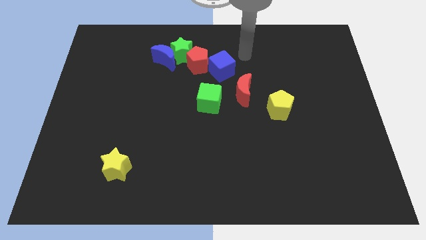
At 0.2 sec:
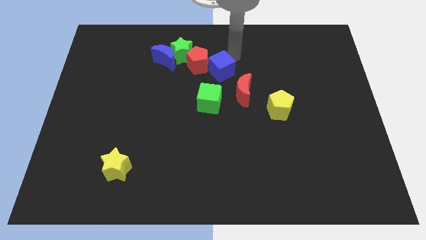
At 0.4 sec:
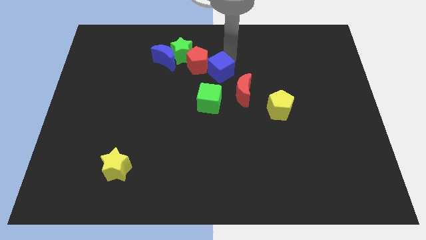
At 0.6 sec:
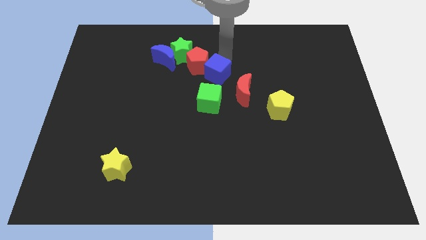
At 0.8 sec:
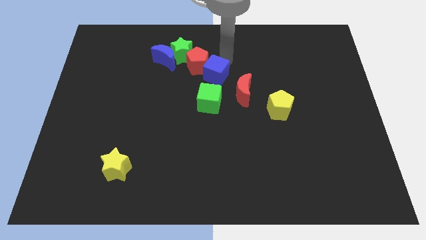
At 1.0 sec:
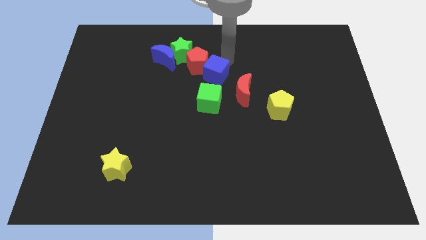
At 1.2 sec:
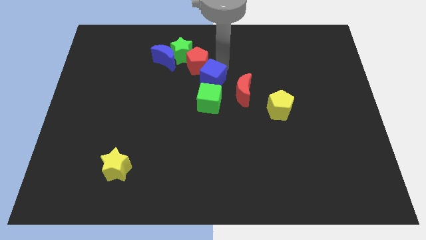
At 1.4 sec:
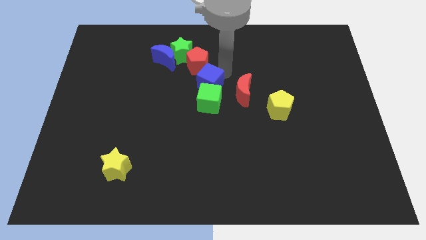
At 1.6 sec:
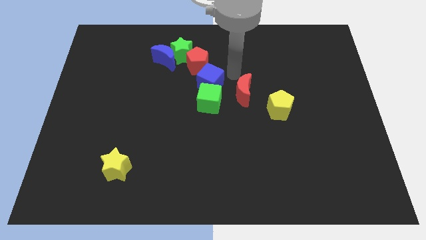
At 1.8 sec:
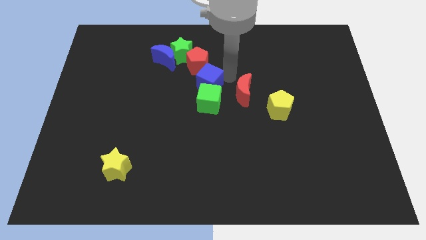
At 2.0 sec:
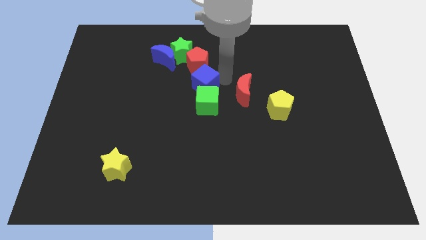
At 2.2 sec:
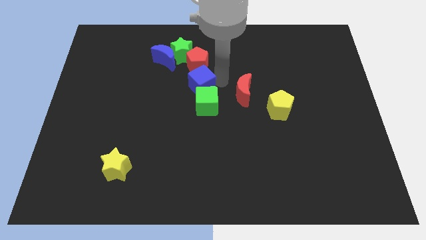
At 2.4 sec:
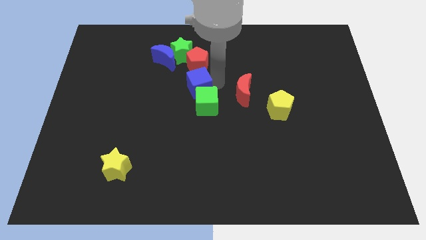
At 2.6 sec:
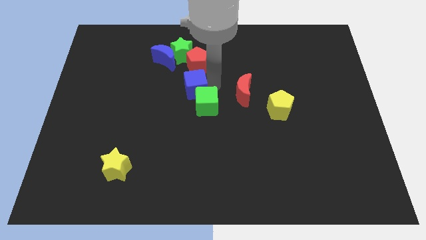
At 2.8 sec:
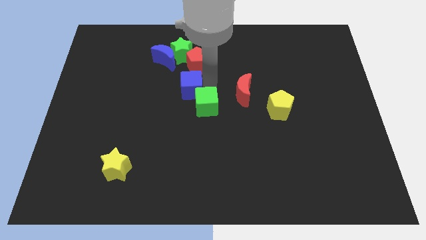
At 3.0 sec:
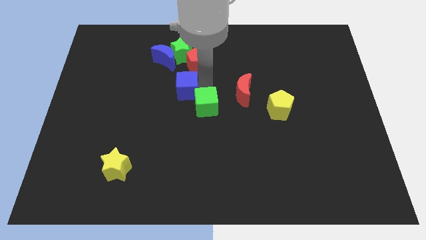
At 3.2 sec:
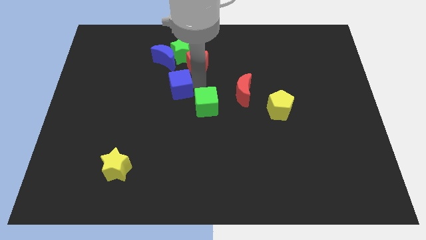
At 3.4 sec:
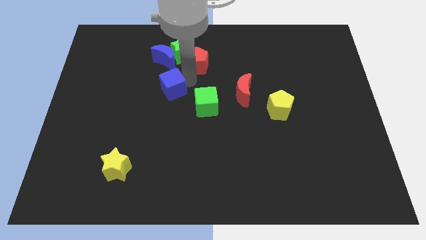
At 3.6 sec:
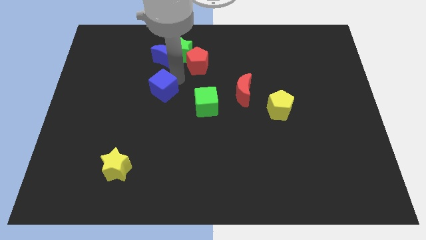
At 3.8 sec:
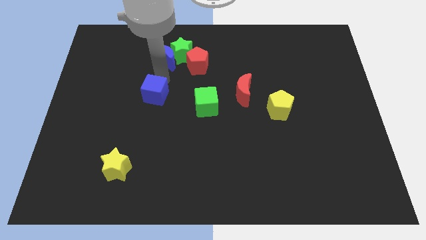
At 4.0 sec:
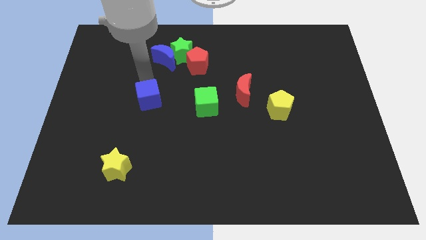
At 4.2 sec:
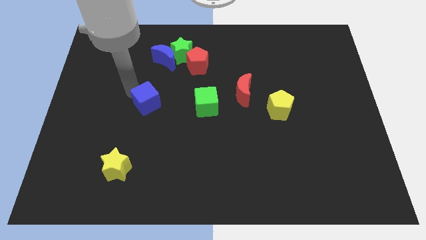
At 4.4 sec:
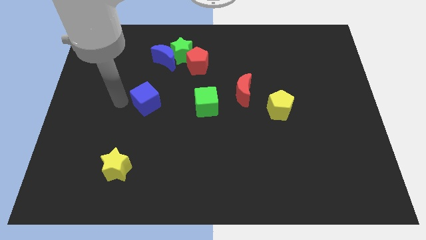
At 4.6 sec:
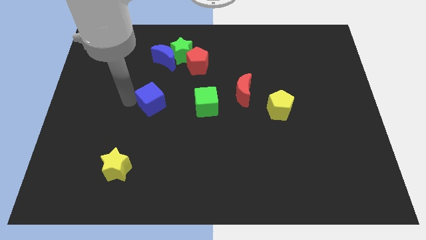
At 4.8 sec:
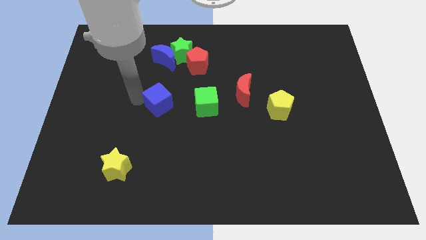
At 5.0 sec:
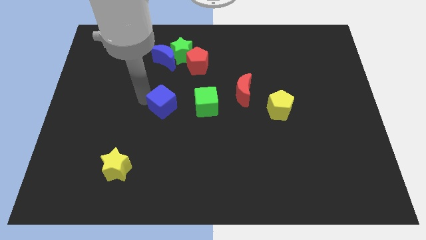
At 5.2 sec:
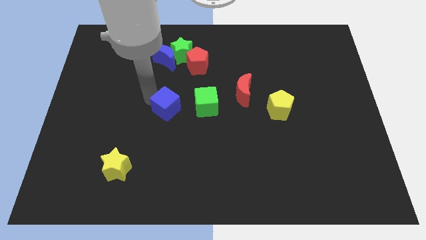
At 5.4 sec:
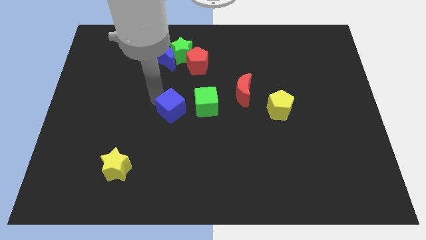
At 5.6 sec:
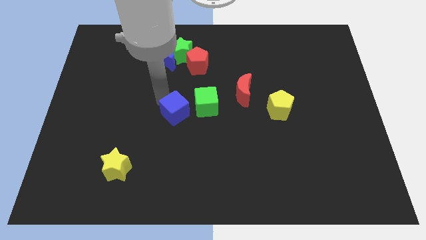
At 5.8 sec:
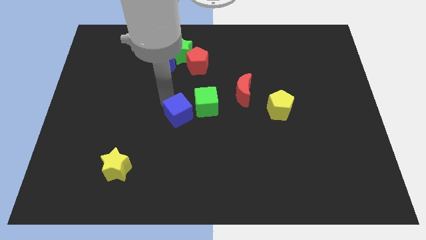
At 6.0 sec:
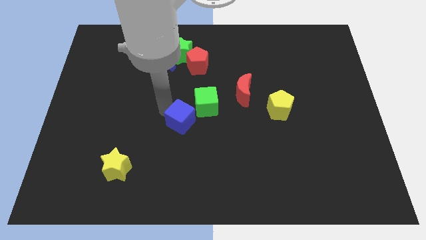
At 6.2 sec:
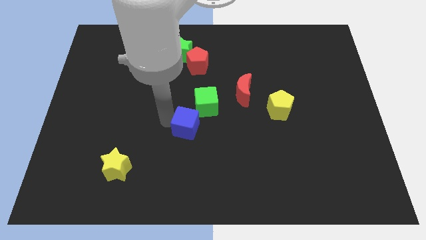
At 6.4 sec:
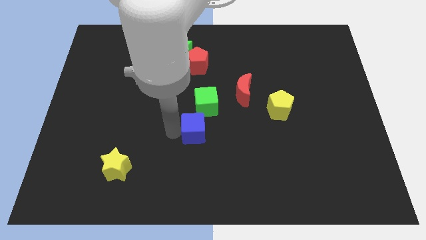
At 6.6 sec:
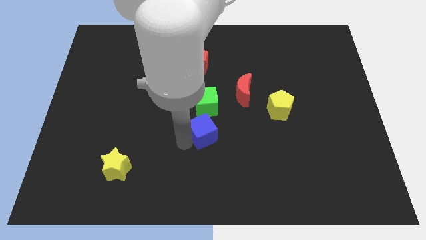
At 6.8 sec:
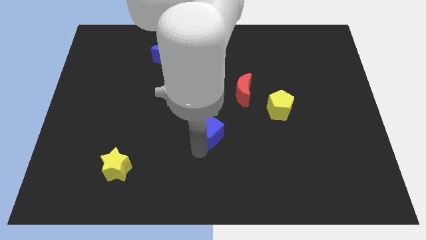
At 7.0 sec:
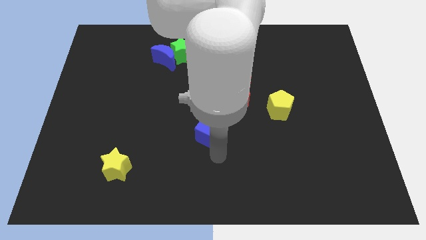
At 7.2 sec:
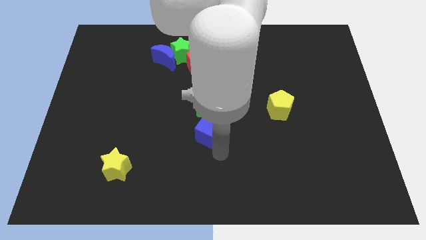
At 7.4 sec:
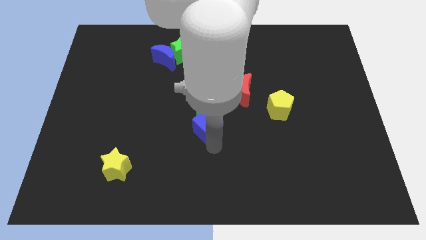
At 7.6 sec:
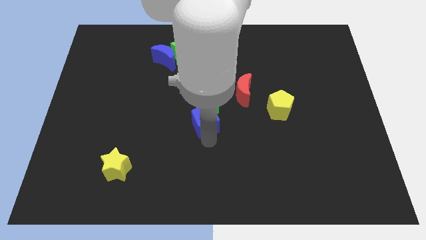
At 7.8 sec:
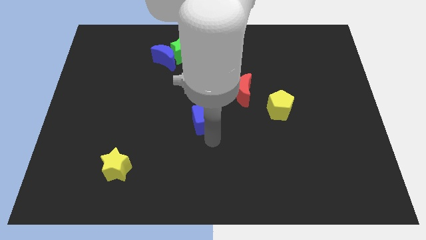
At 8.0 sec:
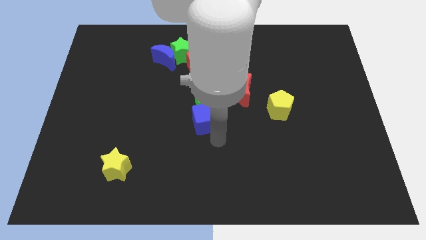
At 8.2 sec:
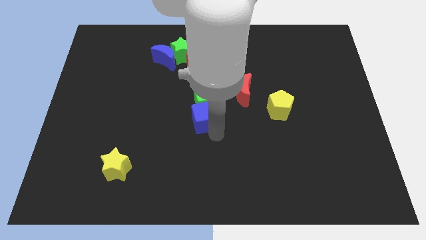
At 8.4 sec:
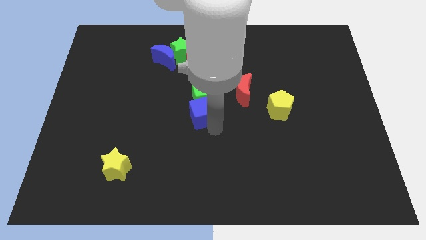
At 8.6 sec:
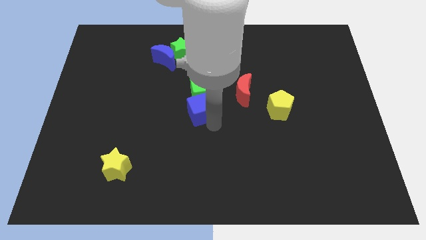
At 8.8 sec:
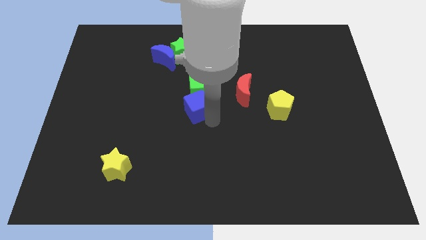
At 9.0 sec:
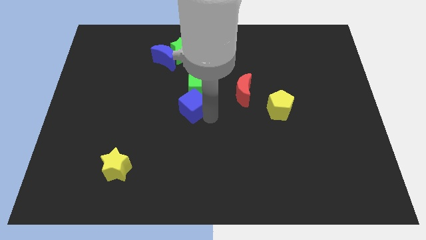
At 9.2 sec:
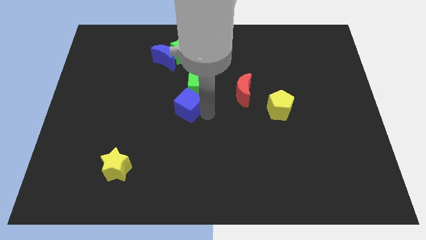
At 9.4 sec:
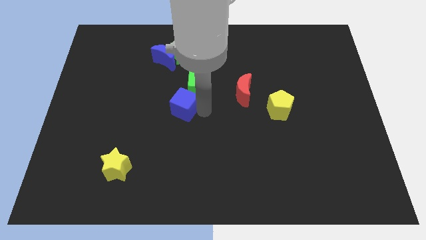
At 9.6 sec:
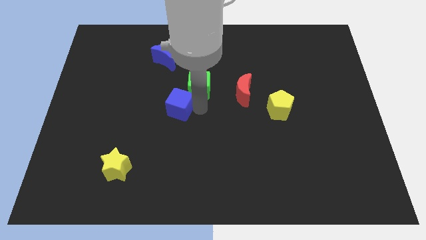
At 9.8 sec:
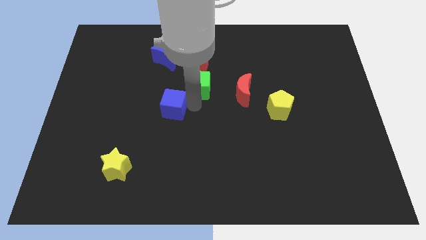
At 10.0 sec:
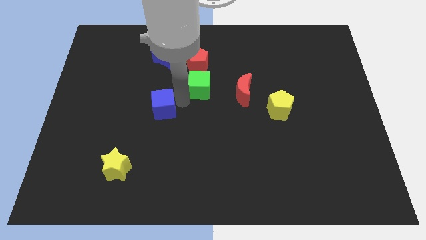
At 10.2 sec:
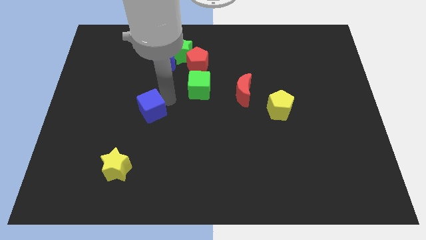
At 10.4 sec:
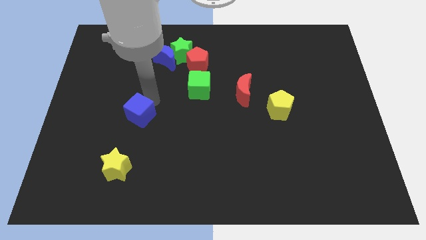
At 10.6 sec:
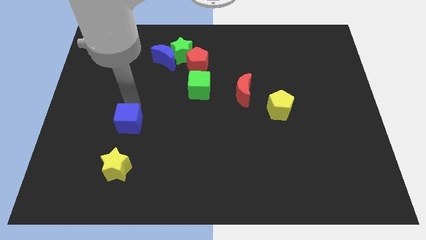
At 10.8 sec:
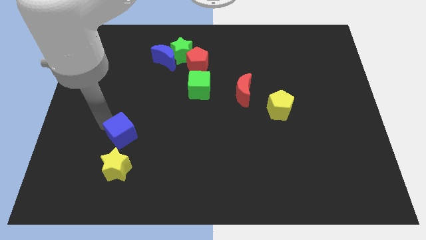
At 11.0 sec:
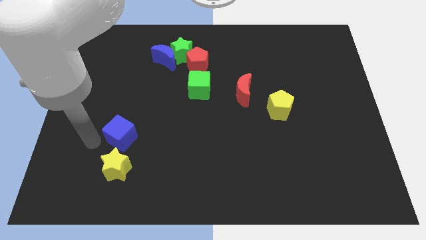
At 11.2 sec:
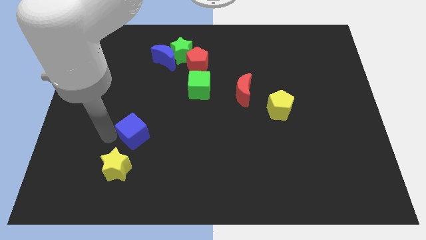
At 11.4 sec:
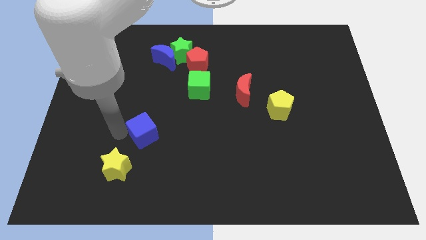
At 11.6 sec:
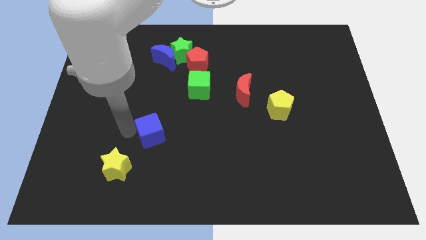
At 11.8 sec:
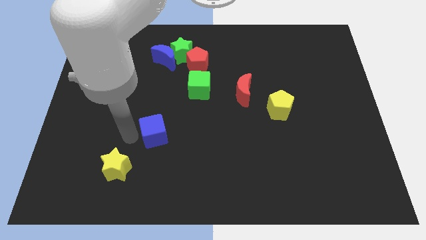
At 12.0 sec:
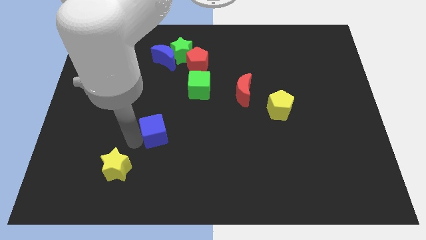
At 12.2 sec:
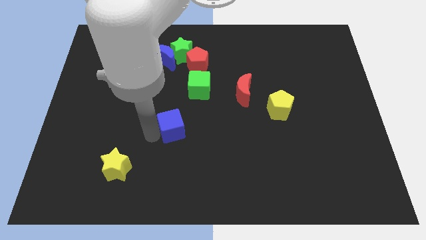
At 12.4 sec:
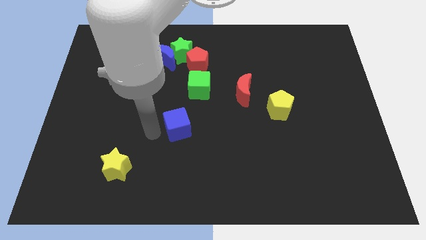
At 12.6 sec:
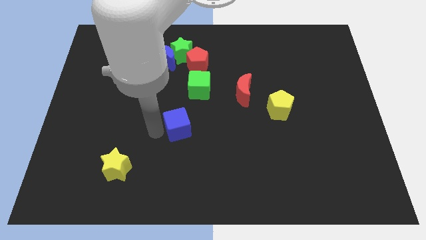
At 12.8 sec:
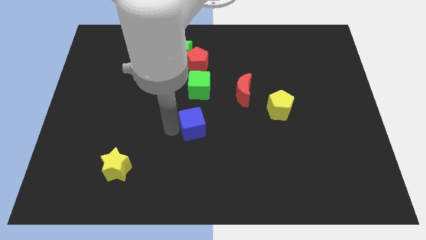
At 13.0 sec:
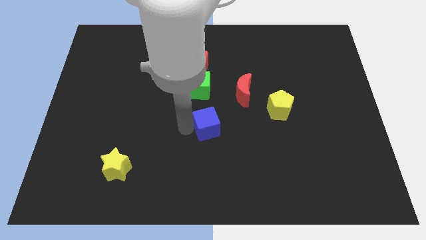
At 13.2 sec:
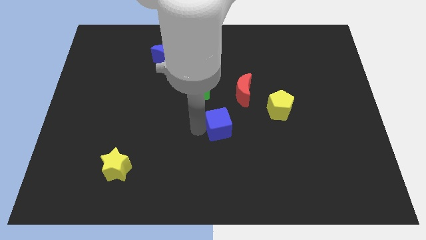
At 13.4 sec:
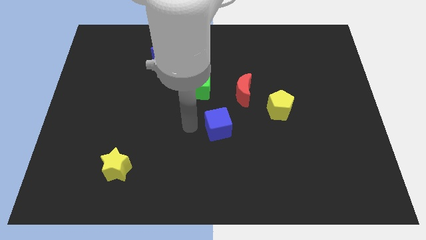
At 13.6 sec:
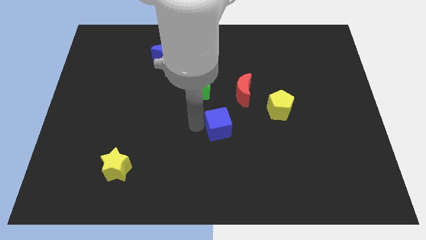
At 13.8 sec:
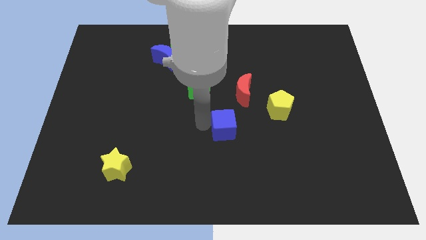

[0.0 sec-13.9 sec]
push the blue cube to the bottom of the red moon
